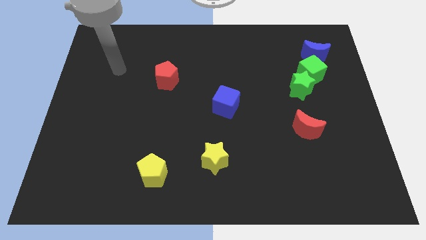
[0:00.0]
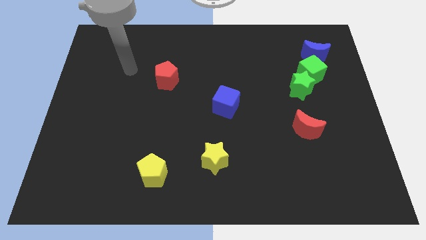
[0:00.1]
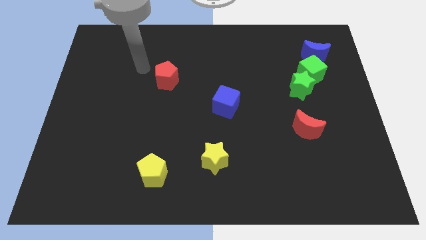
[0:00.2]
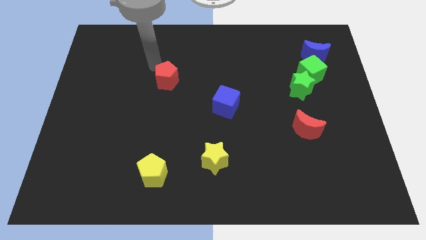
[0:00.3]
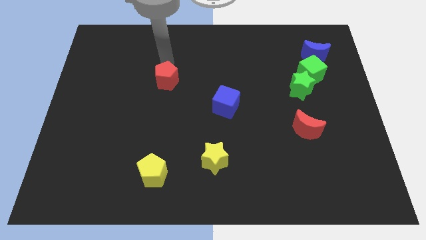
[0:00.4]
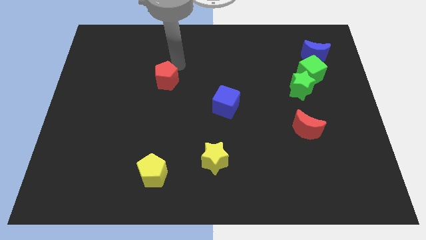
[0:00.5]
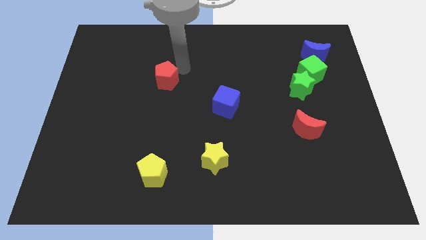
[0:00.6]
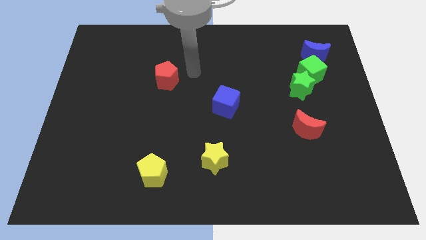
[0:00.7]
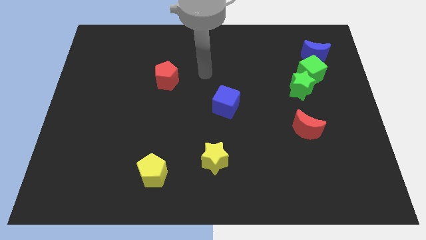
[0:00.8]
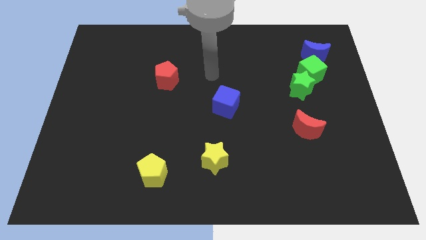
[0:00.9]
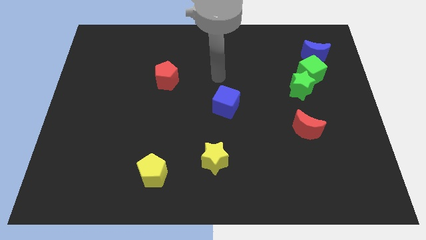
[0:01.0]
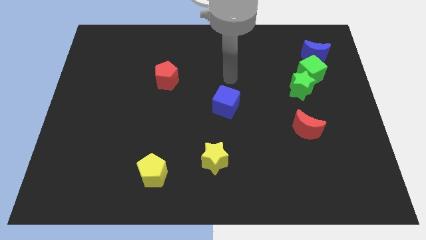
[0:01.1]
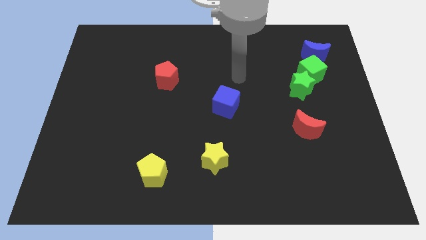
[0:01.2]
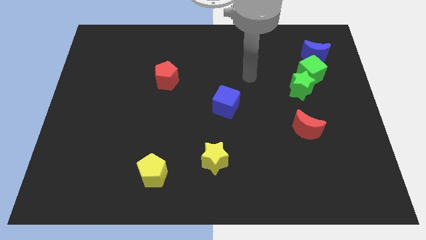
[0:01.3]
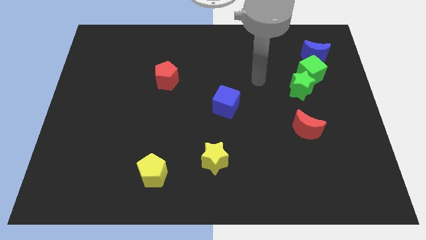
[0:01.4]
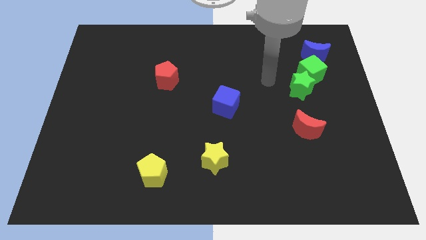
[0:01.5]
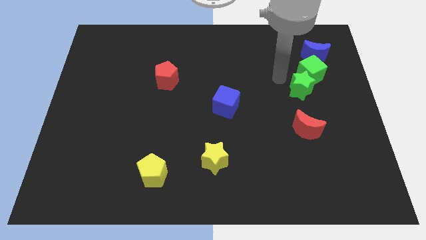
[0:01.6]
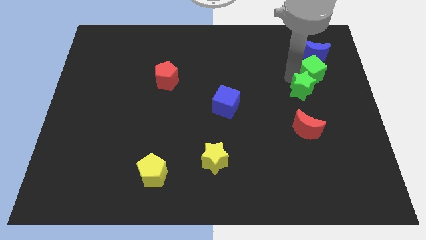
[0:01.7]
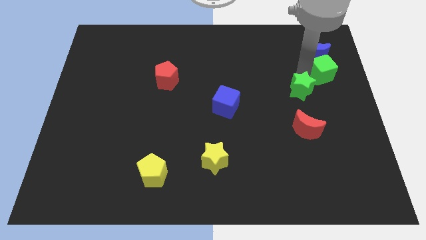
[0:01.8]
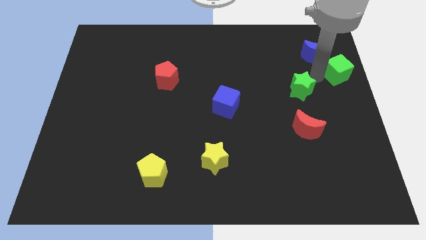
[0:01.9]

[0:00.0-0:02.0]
pull the green star apart from the green cube

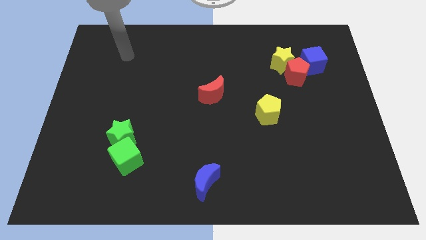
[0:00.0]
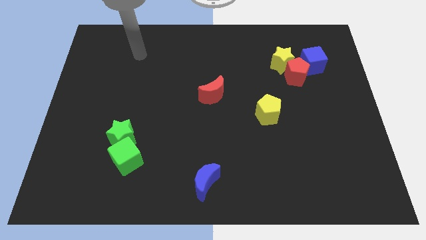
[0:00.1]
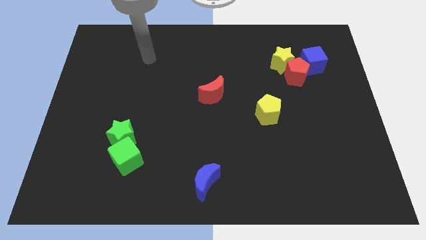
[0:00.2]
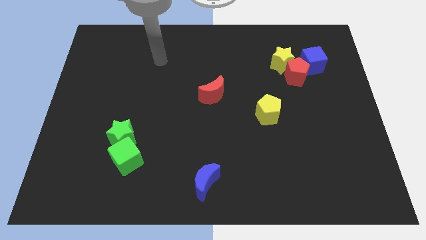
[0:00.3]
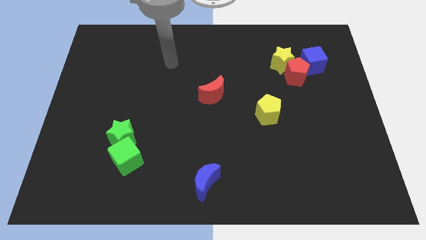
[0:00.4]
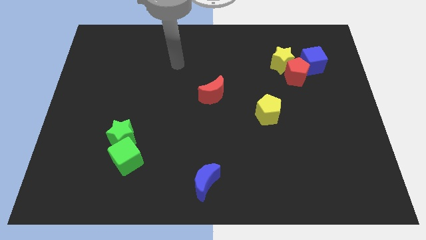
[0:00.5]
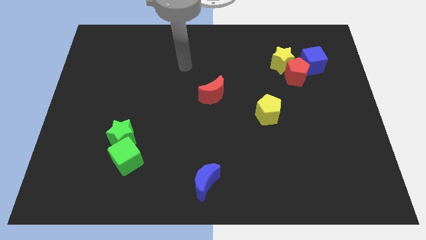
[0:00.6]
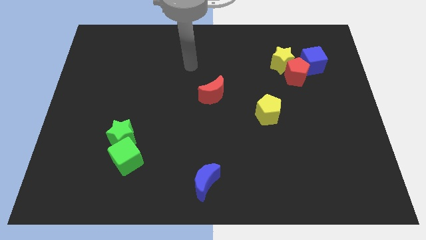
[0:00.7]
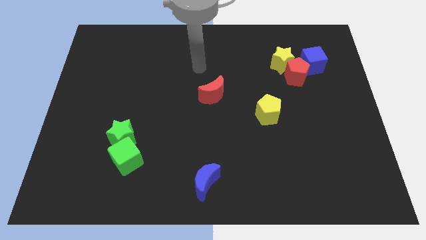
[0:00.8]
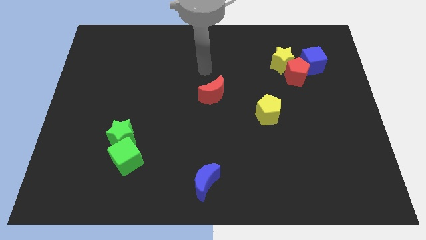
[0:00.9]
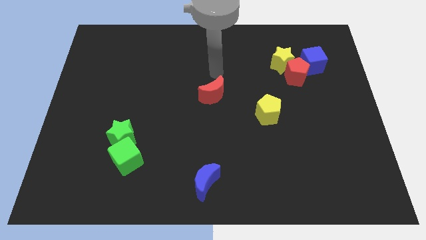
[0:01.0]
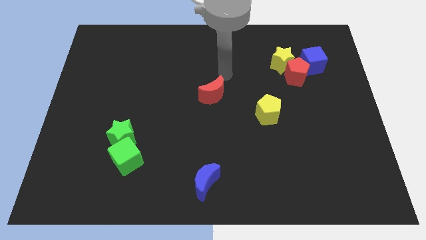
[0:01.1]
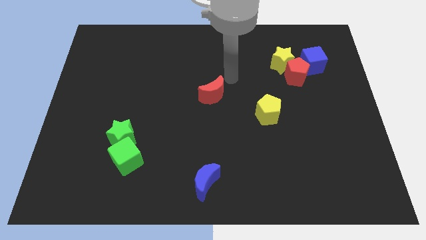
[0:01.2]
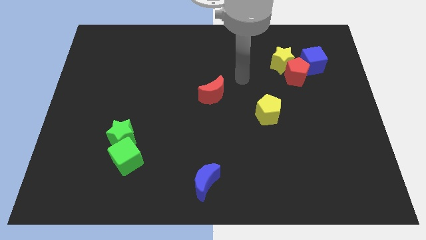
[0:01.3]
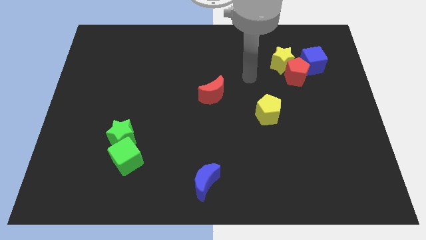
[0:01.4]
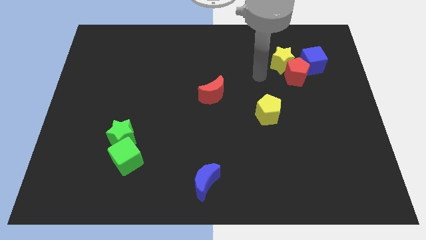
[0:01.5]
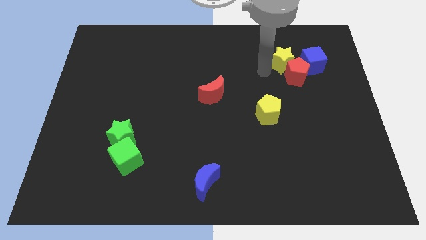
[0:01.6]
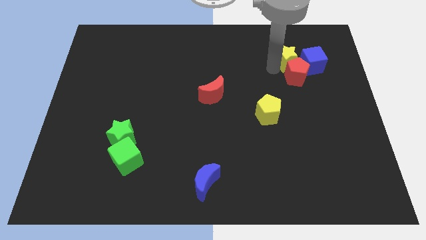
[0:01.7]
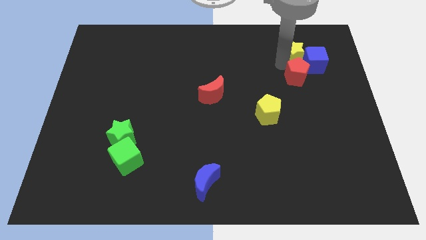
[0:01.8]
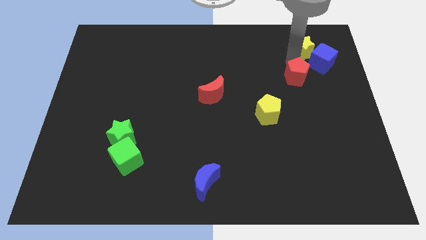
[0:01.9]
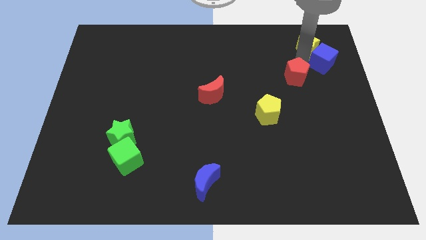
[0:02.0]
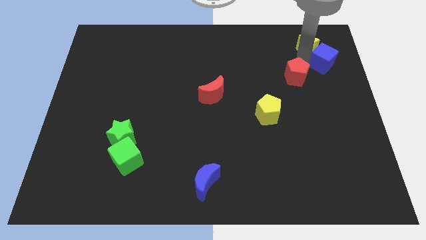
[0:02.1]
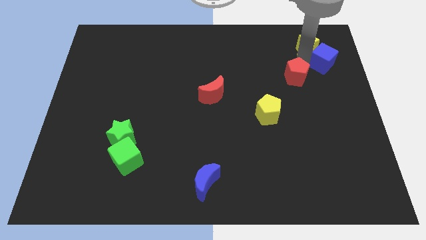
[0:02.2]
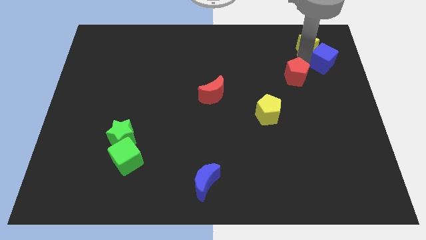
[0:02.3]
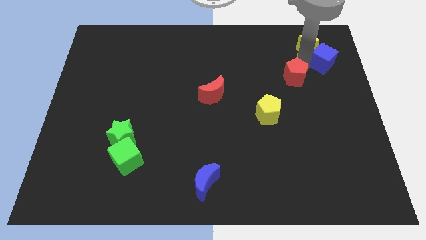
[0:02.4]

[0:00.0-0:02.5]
move the red pentagon away from the yellow star and blue cube

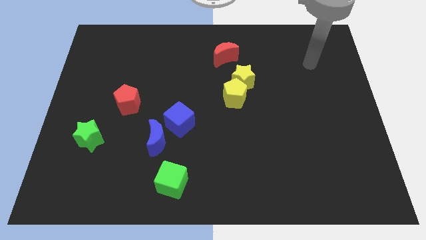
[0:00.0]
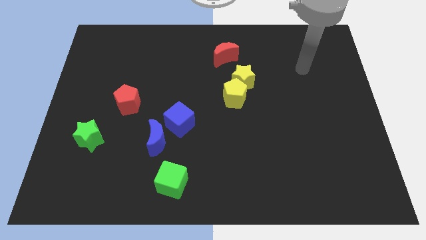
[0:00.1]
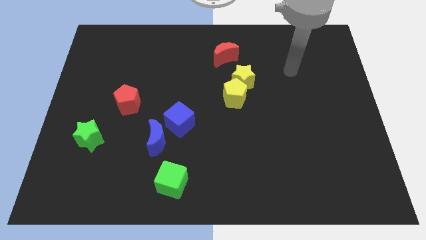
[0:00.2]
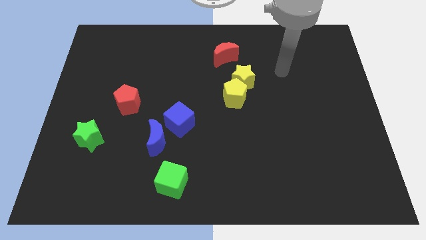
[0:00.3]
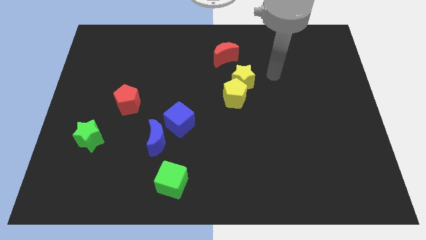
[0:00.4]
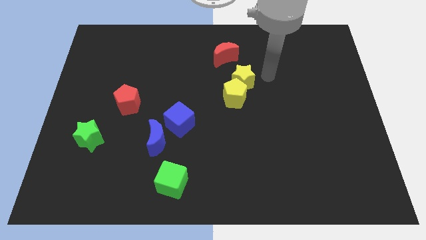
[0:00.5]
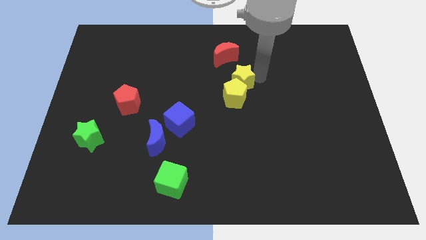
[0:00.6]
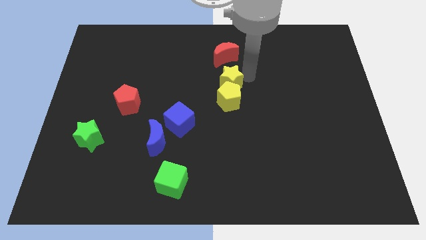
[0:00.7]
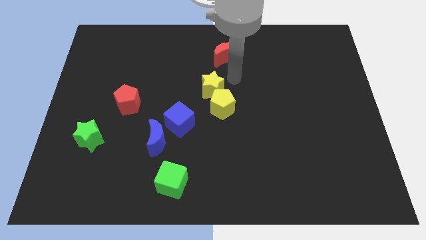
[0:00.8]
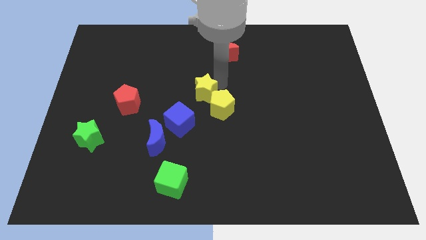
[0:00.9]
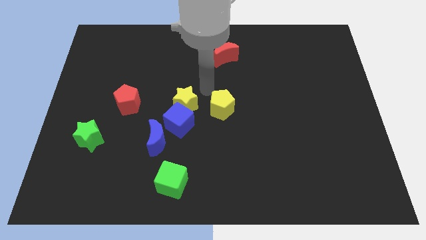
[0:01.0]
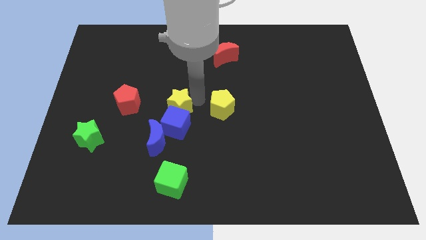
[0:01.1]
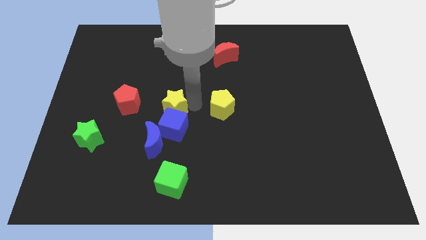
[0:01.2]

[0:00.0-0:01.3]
move the yellow pentagon away from the yellow star

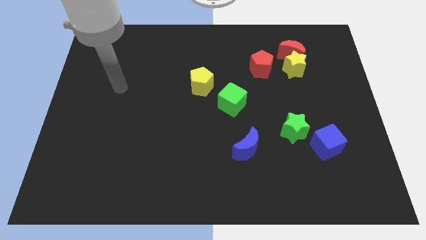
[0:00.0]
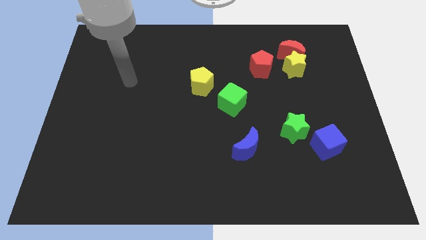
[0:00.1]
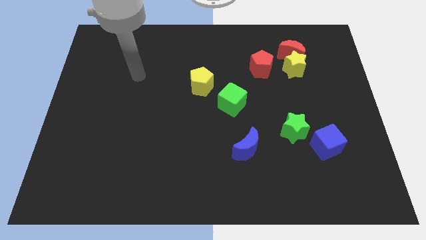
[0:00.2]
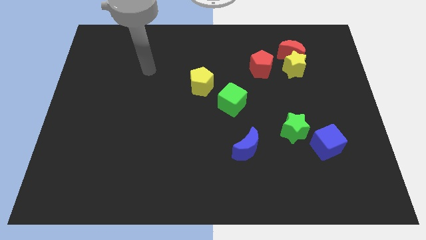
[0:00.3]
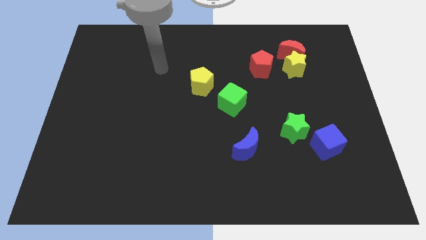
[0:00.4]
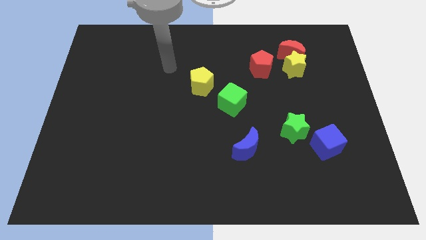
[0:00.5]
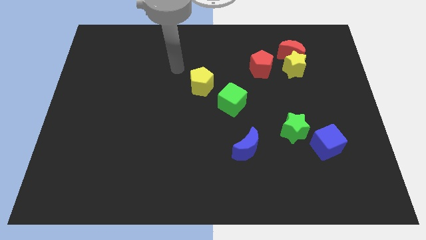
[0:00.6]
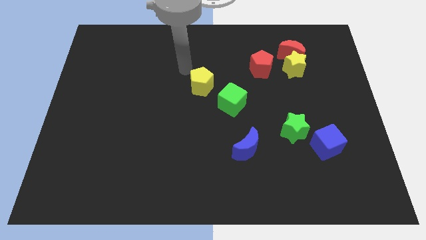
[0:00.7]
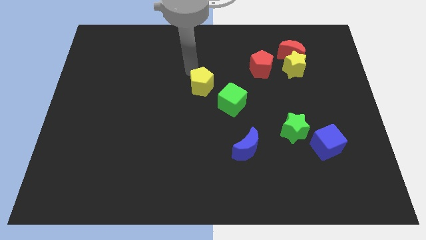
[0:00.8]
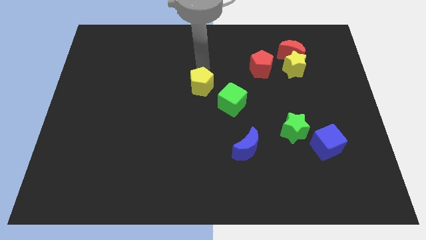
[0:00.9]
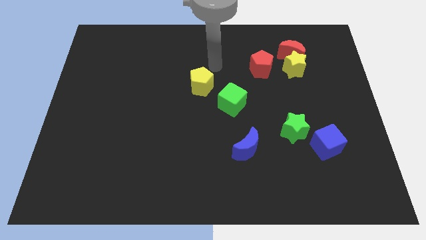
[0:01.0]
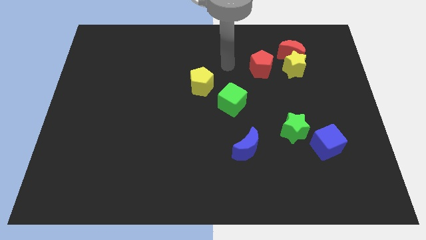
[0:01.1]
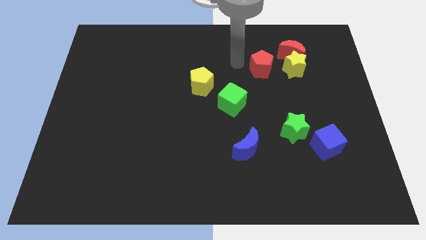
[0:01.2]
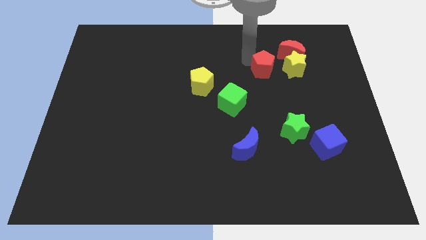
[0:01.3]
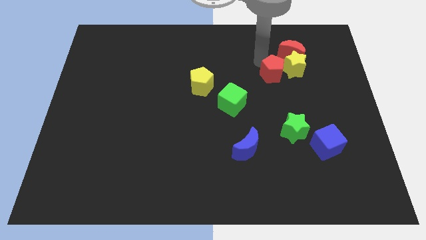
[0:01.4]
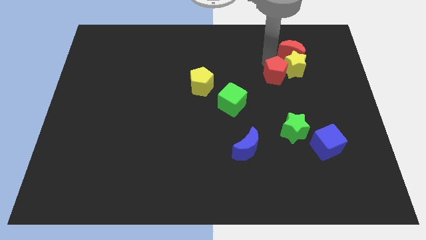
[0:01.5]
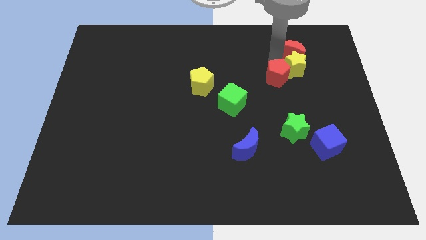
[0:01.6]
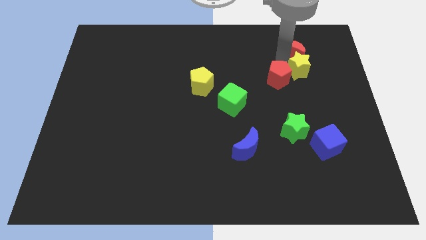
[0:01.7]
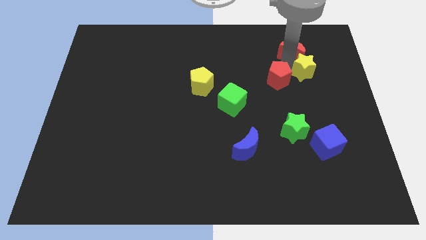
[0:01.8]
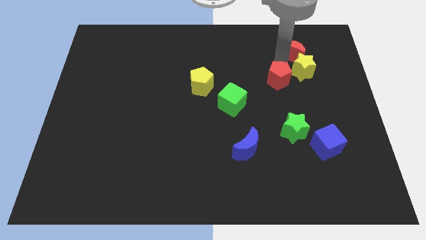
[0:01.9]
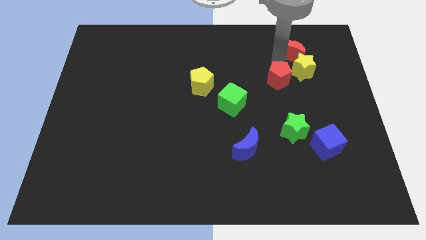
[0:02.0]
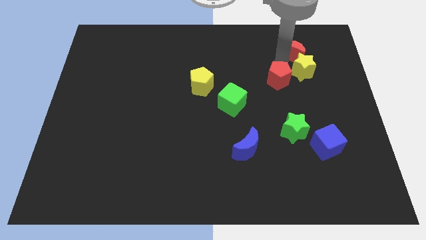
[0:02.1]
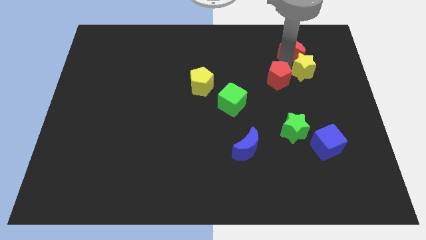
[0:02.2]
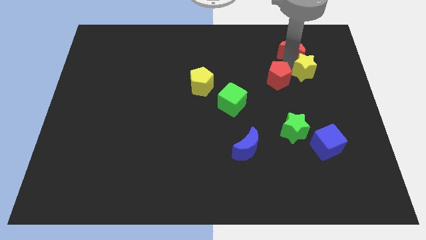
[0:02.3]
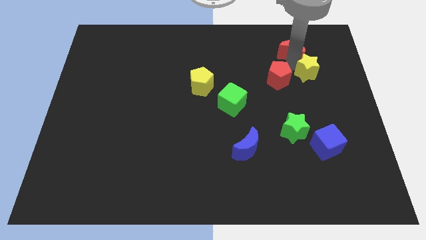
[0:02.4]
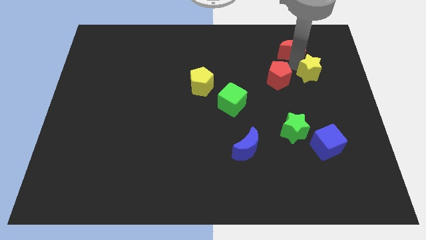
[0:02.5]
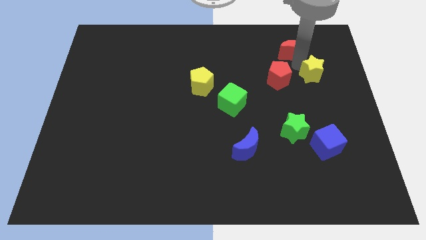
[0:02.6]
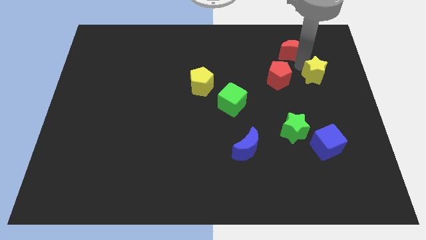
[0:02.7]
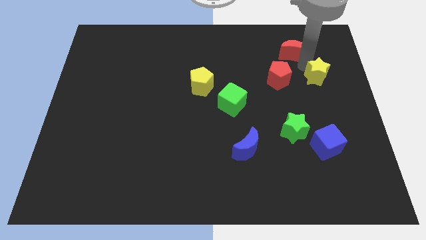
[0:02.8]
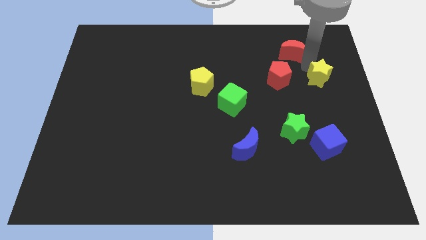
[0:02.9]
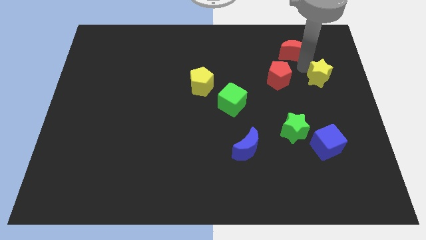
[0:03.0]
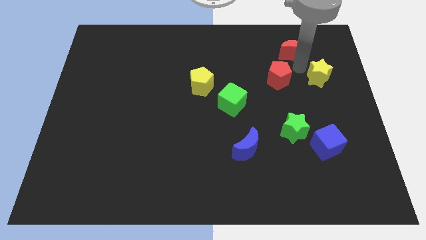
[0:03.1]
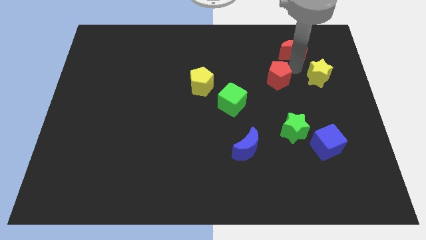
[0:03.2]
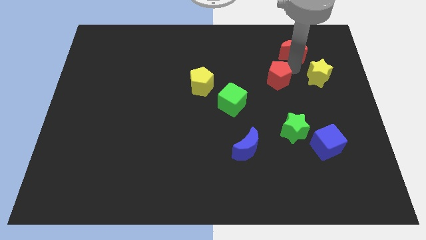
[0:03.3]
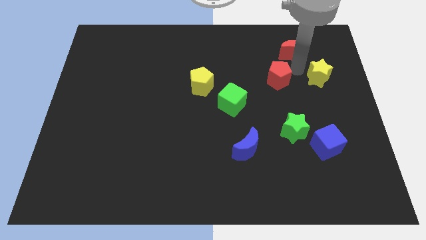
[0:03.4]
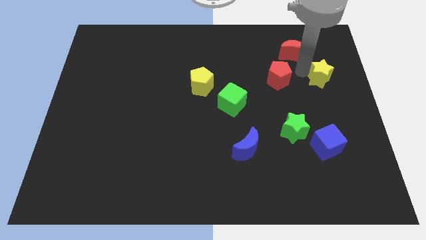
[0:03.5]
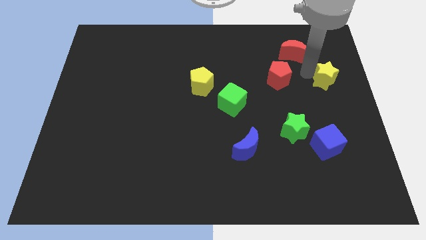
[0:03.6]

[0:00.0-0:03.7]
separate the yellow star from the red moon and red pentagon
